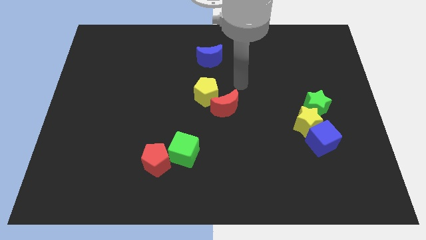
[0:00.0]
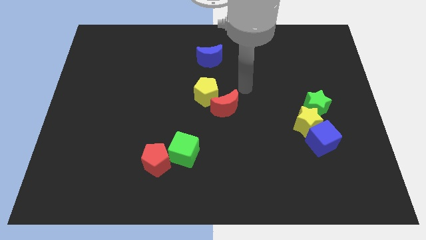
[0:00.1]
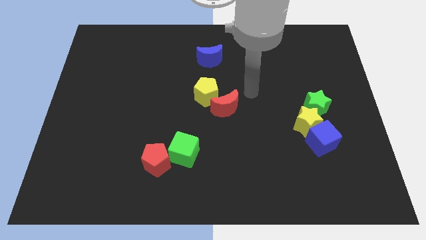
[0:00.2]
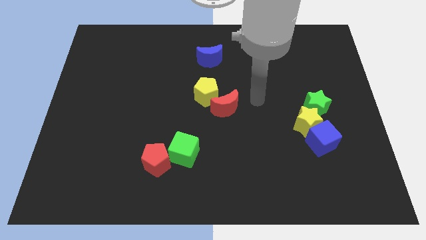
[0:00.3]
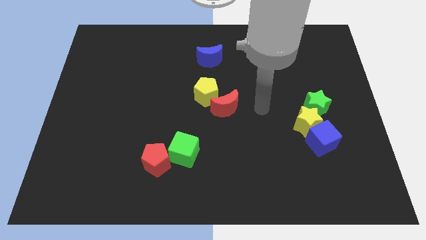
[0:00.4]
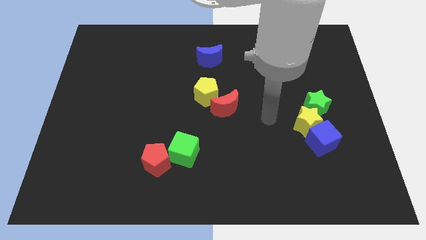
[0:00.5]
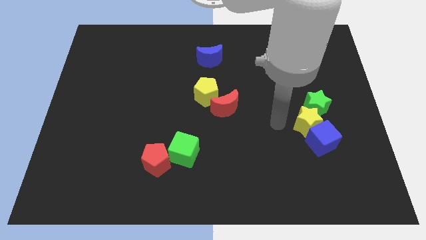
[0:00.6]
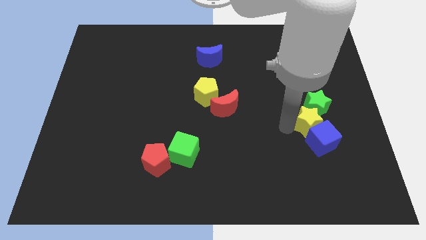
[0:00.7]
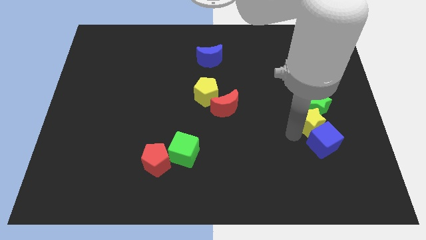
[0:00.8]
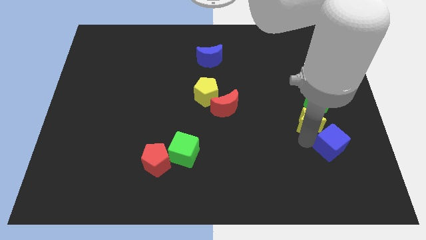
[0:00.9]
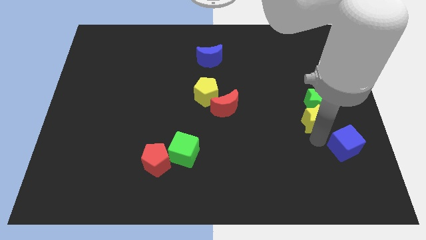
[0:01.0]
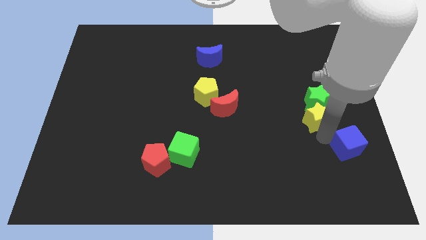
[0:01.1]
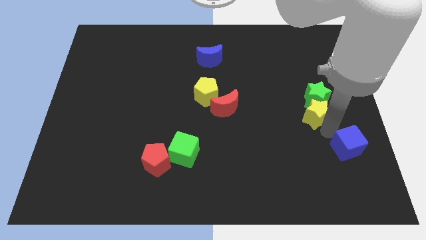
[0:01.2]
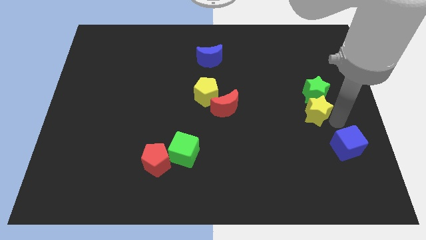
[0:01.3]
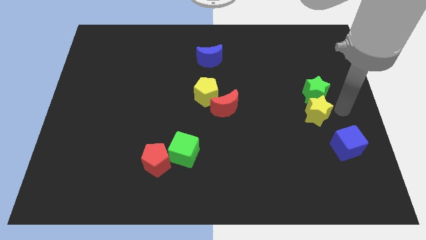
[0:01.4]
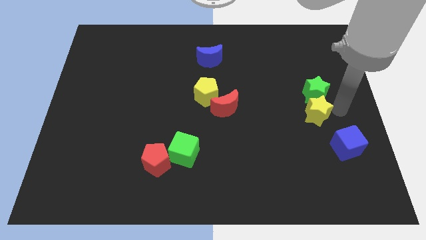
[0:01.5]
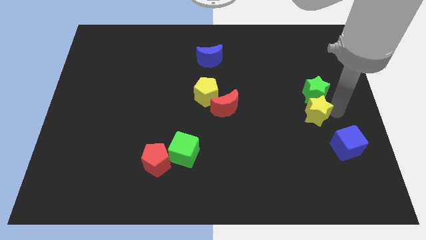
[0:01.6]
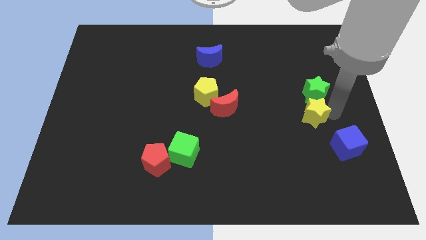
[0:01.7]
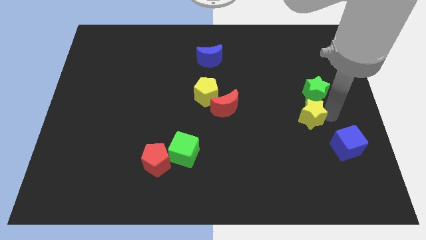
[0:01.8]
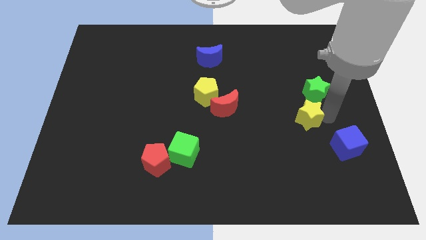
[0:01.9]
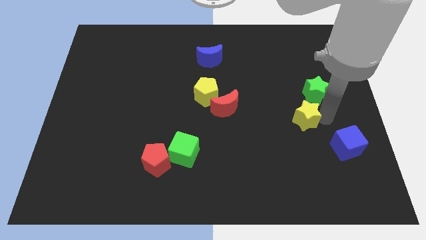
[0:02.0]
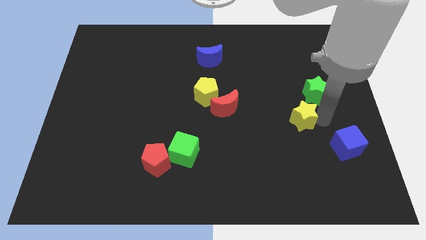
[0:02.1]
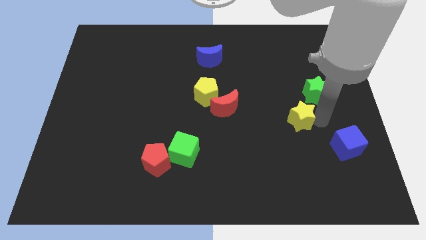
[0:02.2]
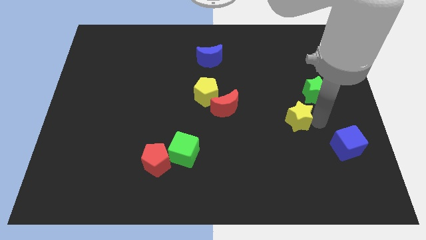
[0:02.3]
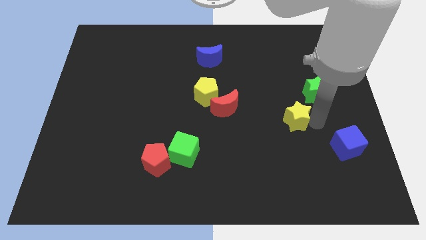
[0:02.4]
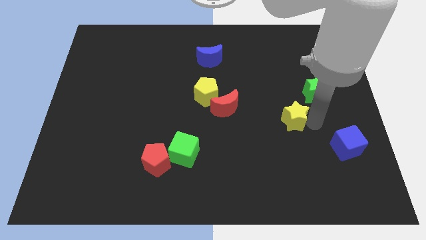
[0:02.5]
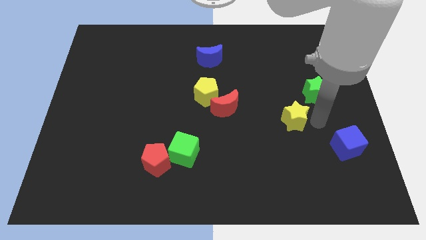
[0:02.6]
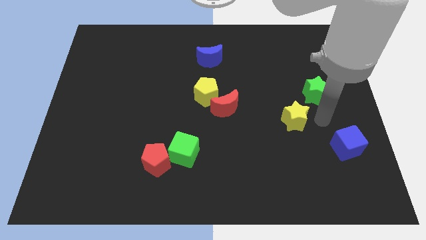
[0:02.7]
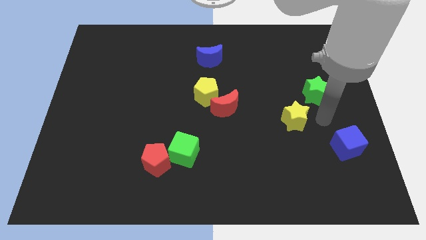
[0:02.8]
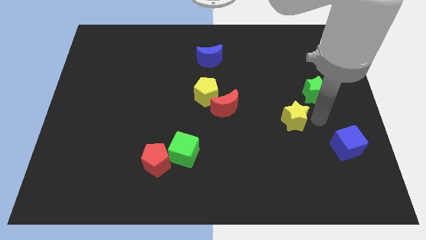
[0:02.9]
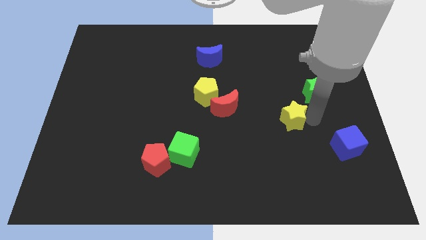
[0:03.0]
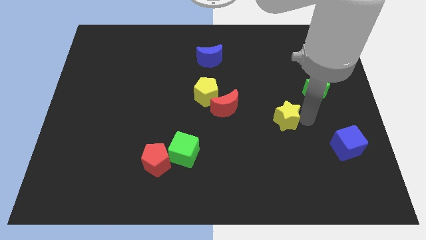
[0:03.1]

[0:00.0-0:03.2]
move the yellow star away from the green star and blue cube

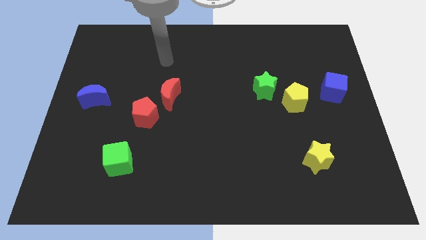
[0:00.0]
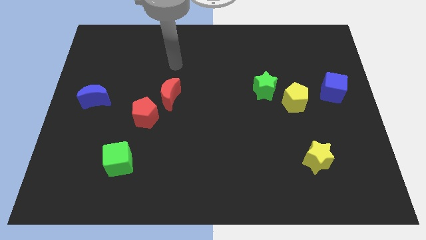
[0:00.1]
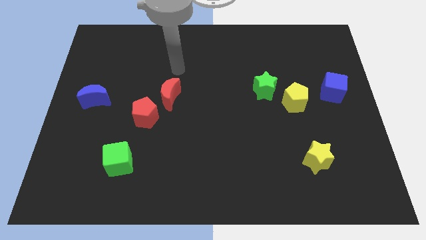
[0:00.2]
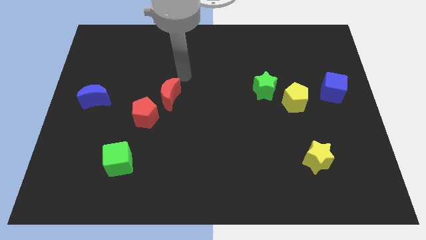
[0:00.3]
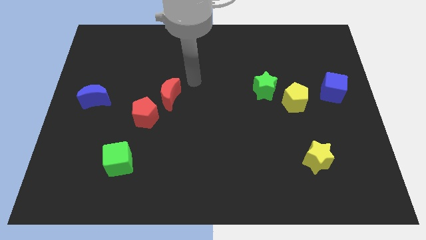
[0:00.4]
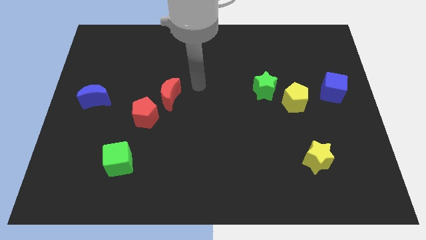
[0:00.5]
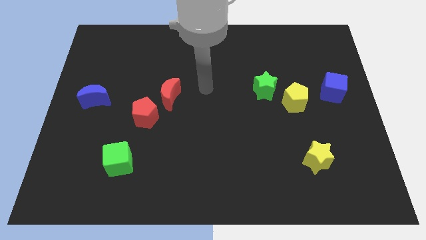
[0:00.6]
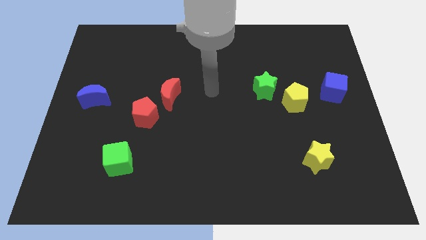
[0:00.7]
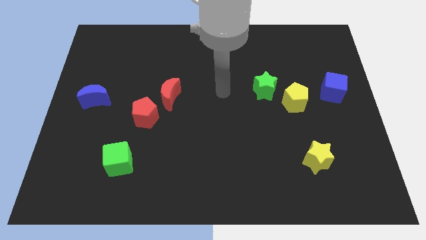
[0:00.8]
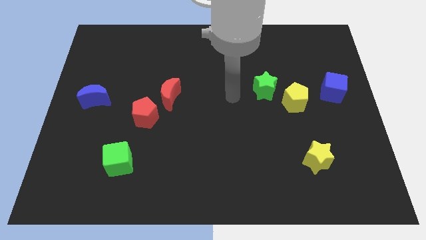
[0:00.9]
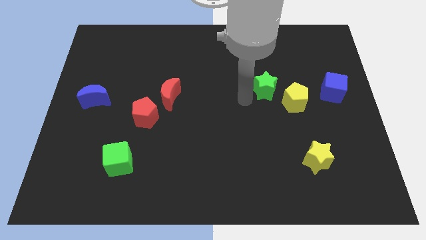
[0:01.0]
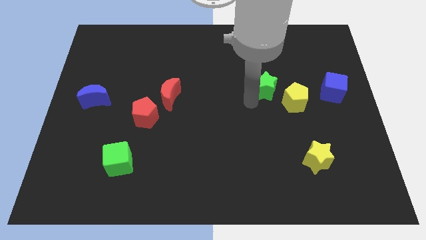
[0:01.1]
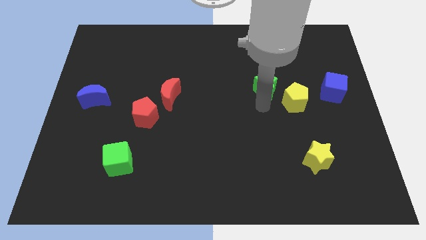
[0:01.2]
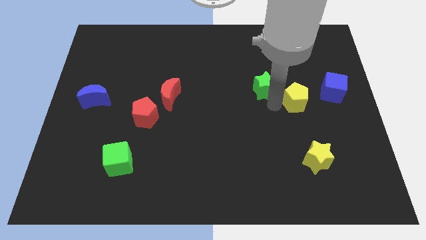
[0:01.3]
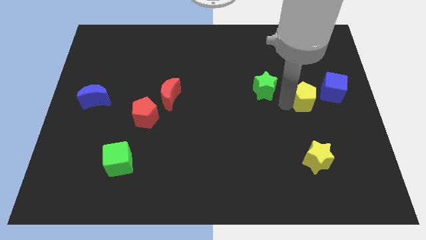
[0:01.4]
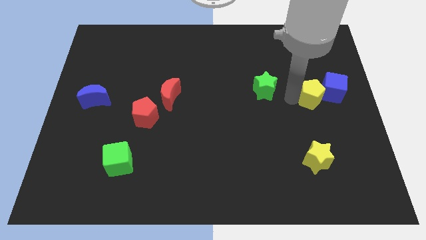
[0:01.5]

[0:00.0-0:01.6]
move the green star away from the yellow pentagon

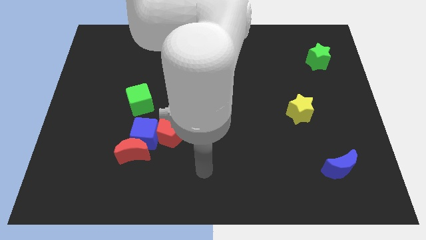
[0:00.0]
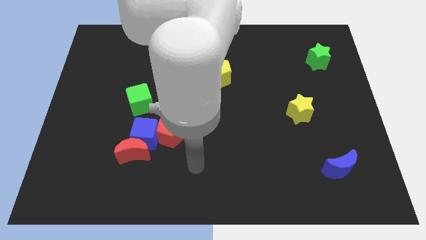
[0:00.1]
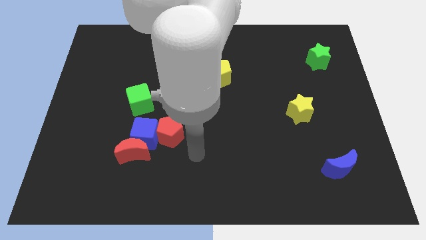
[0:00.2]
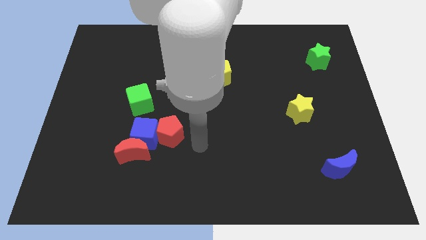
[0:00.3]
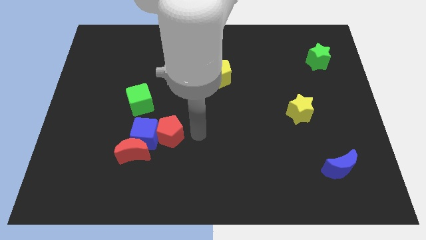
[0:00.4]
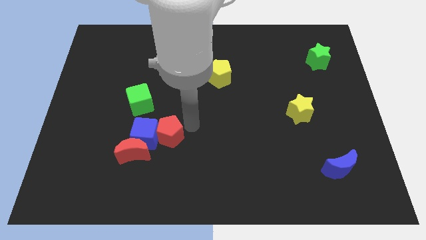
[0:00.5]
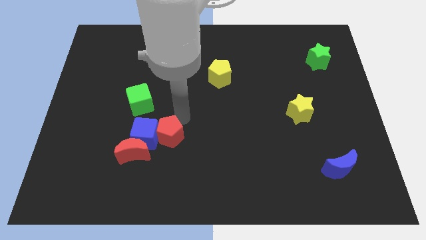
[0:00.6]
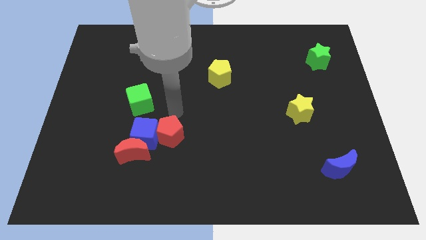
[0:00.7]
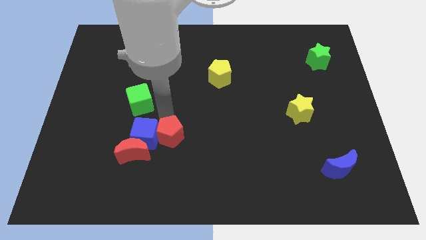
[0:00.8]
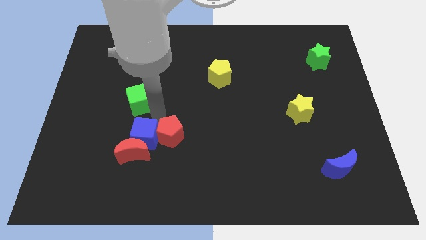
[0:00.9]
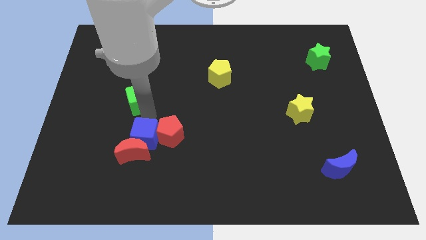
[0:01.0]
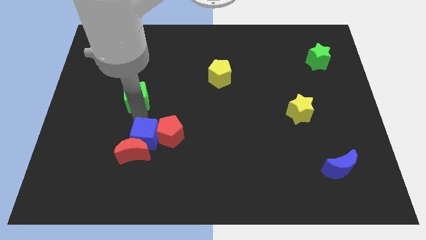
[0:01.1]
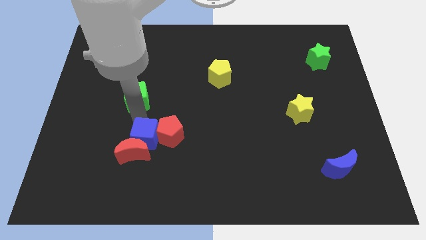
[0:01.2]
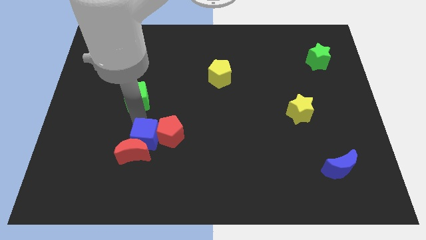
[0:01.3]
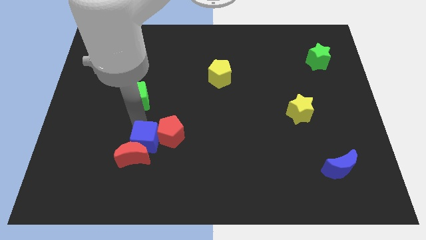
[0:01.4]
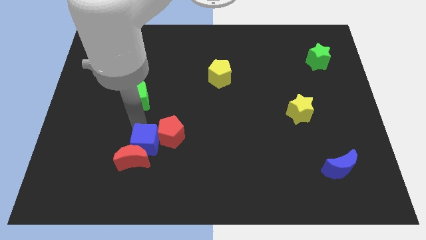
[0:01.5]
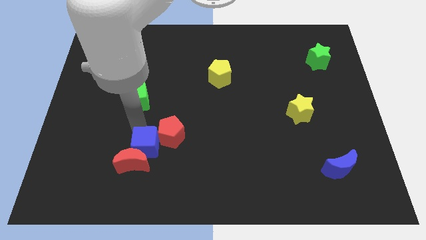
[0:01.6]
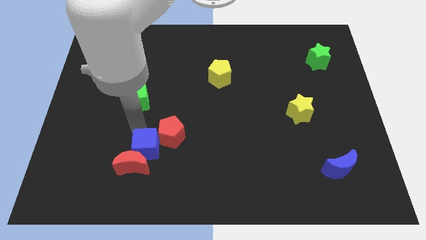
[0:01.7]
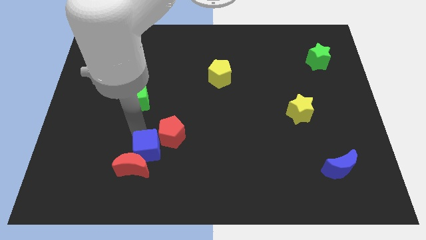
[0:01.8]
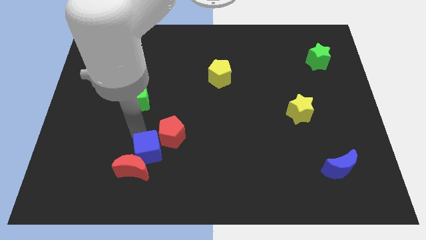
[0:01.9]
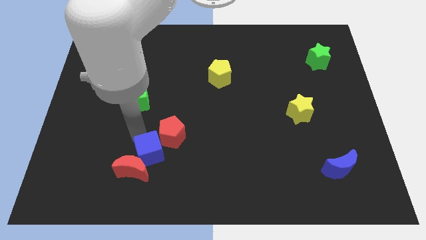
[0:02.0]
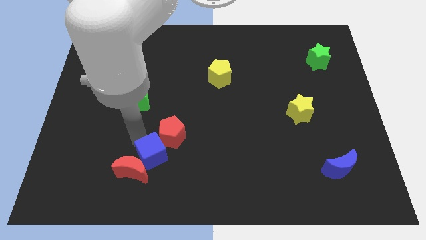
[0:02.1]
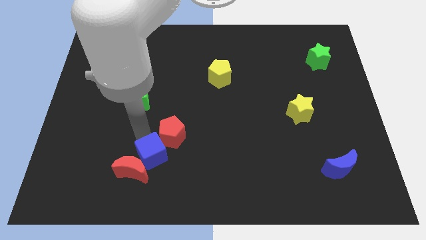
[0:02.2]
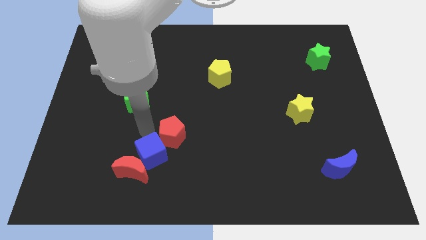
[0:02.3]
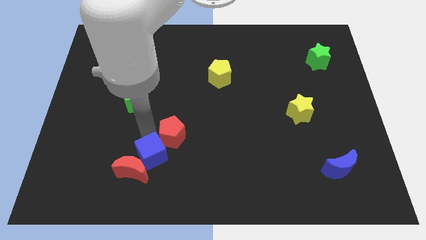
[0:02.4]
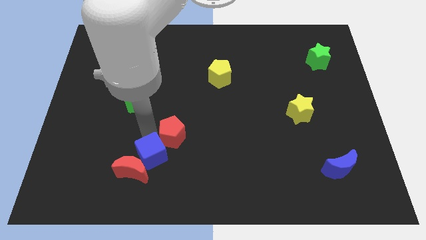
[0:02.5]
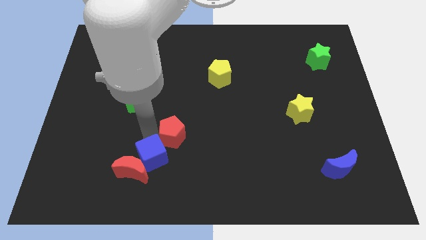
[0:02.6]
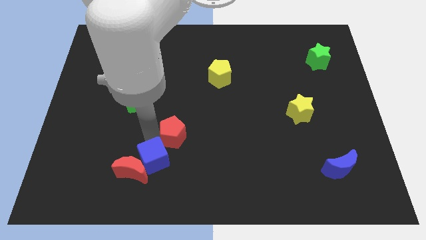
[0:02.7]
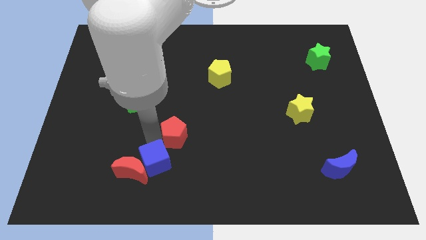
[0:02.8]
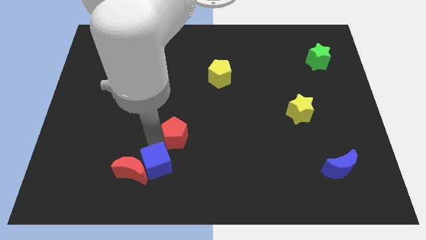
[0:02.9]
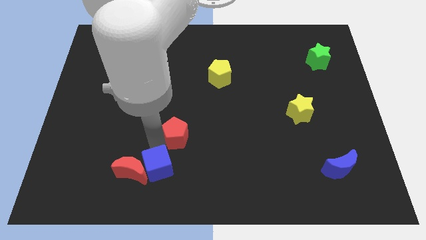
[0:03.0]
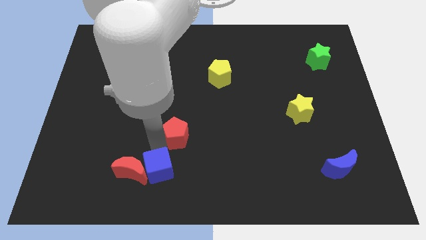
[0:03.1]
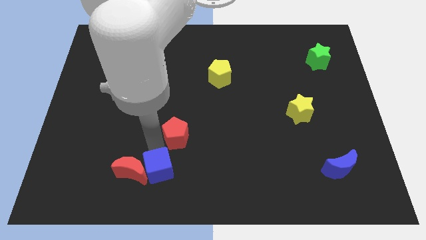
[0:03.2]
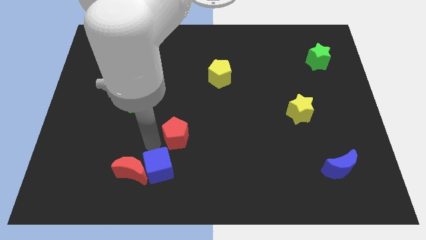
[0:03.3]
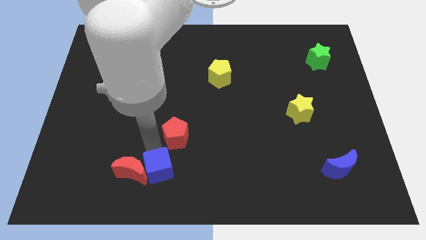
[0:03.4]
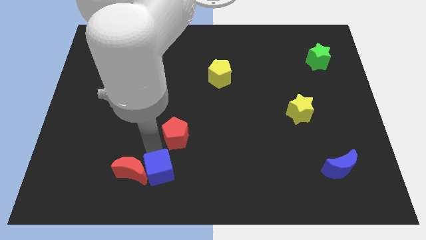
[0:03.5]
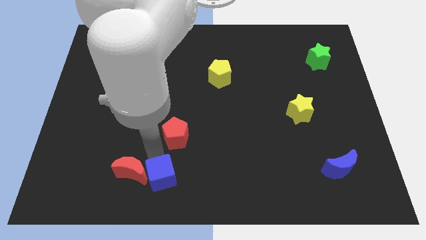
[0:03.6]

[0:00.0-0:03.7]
pull the blue cube apart from the red moon, red pentagon, and green cube

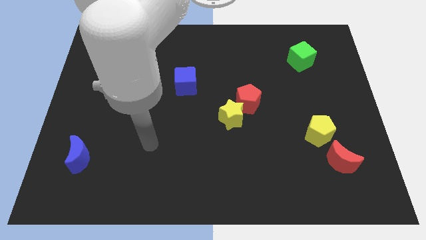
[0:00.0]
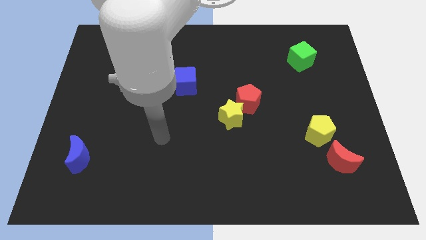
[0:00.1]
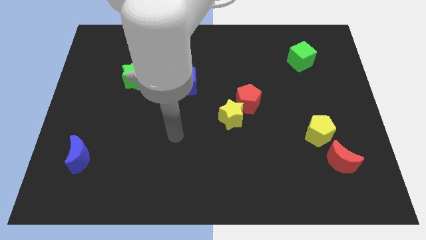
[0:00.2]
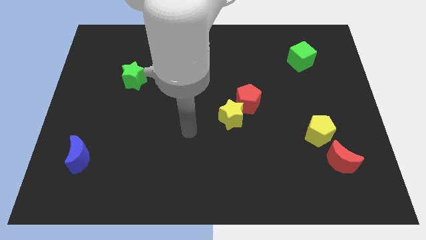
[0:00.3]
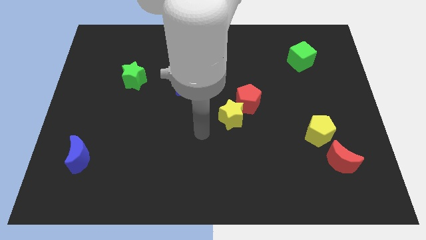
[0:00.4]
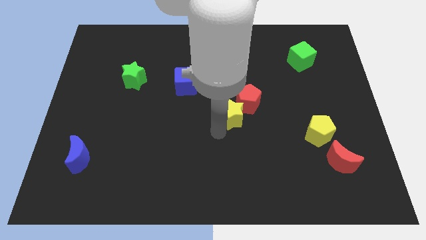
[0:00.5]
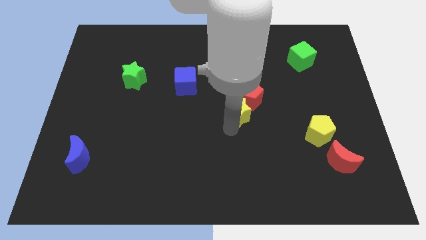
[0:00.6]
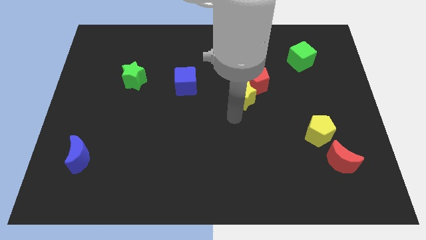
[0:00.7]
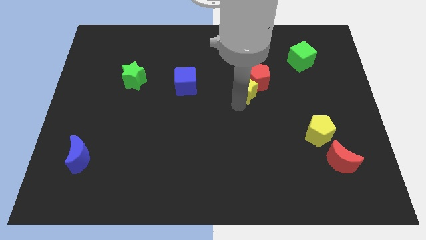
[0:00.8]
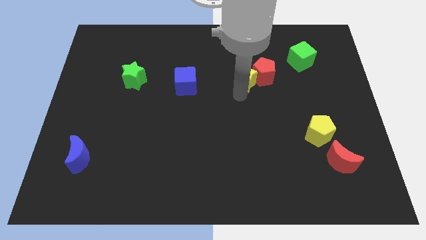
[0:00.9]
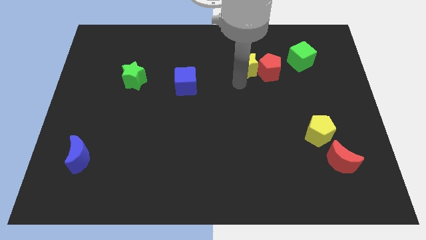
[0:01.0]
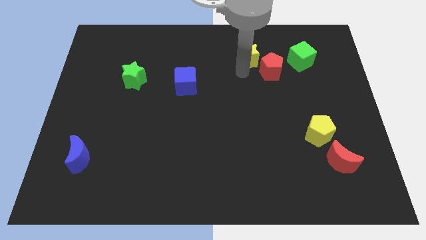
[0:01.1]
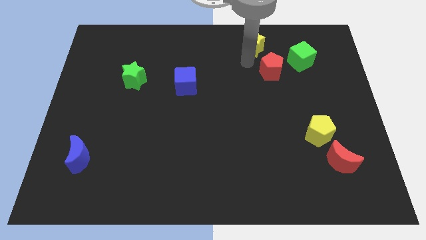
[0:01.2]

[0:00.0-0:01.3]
move the red pentagon away from the yellow star
